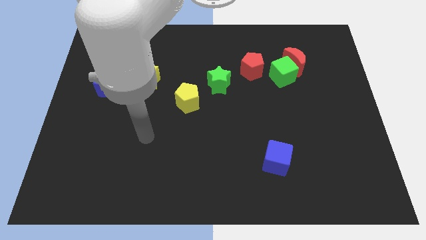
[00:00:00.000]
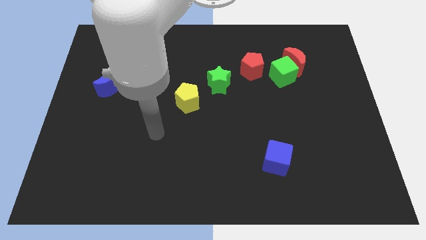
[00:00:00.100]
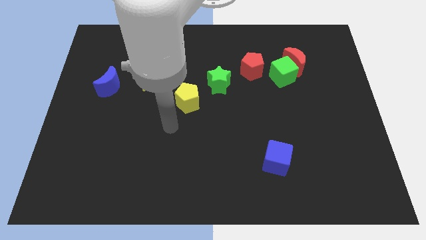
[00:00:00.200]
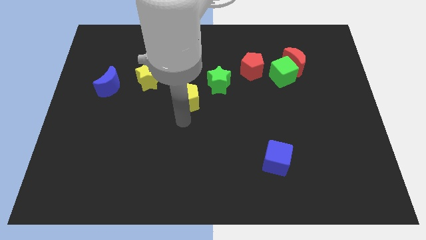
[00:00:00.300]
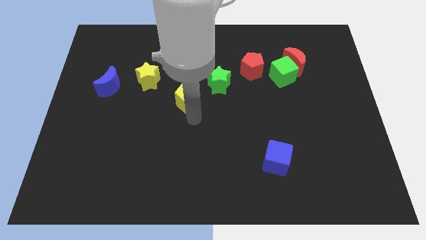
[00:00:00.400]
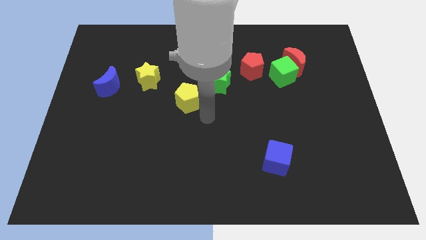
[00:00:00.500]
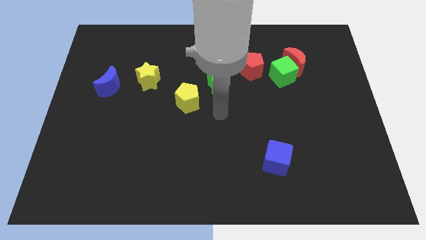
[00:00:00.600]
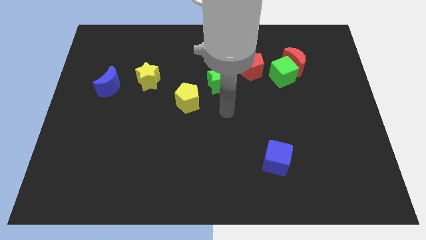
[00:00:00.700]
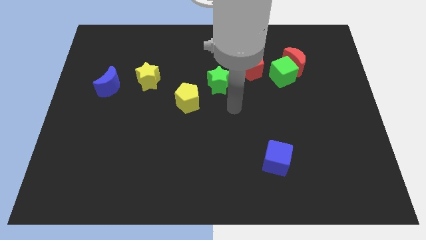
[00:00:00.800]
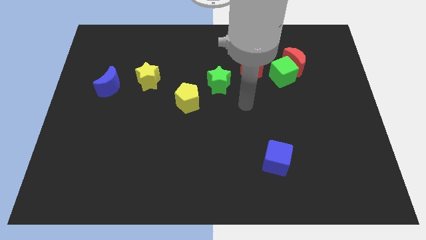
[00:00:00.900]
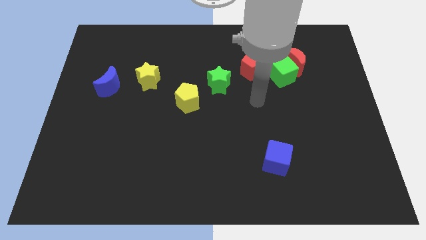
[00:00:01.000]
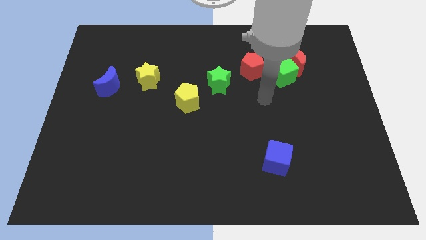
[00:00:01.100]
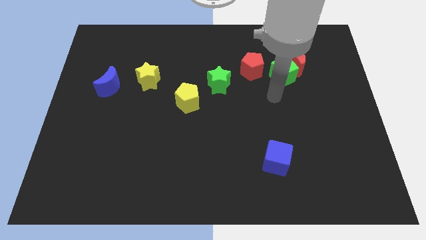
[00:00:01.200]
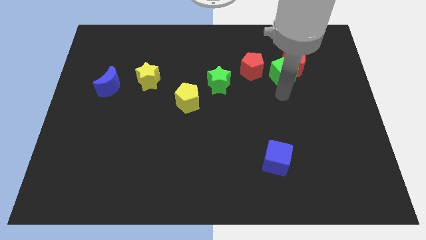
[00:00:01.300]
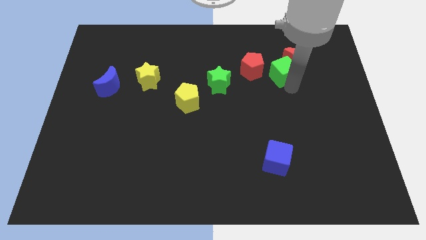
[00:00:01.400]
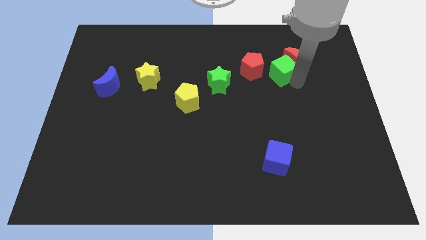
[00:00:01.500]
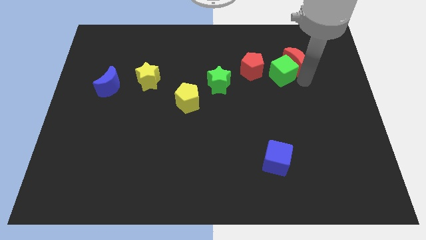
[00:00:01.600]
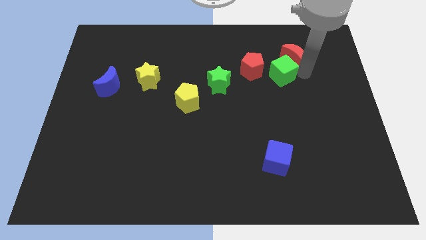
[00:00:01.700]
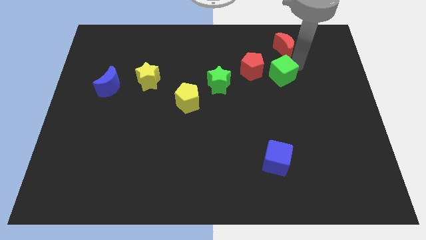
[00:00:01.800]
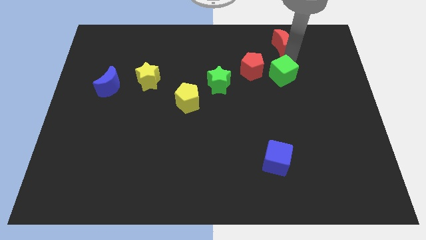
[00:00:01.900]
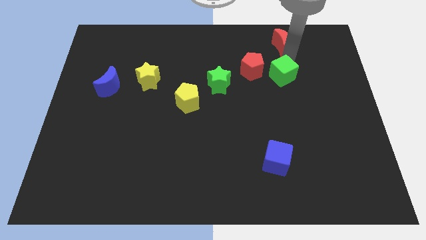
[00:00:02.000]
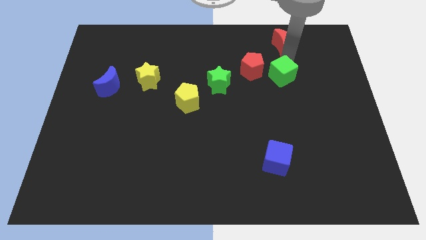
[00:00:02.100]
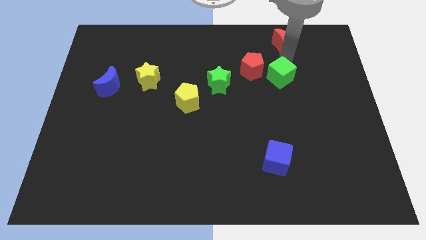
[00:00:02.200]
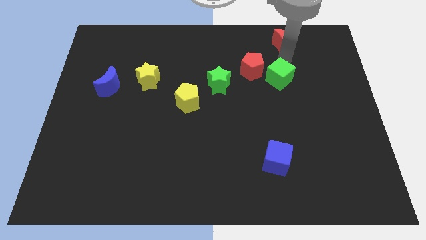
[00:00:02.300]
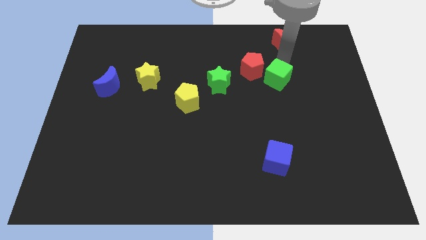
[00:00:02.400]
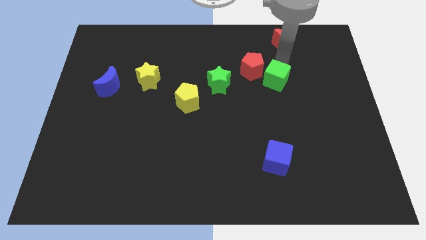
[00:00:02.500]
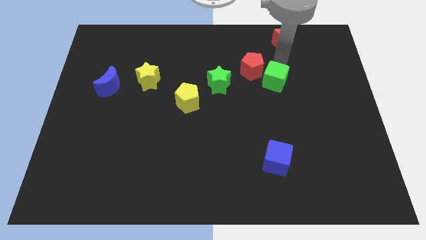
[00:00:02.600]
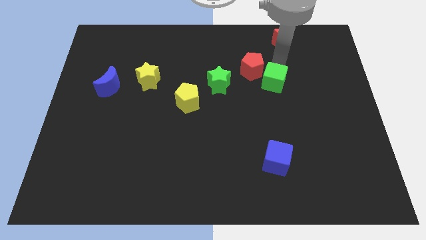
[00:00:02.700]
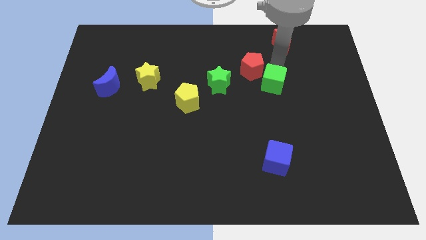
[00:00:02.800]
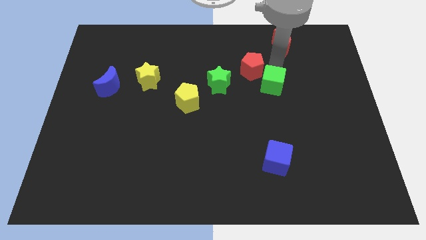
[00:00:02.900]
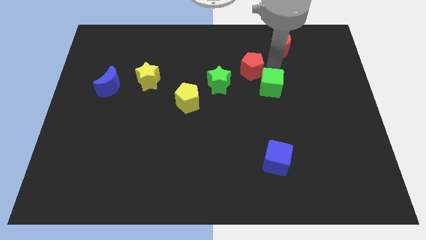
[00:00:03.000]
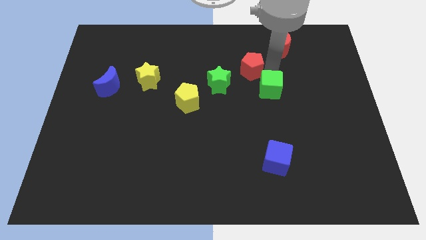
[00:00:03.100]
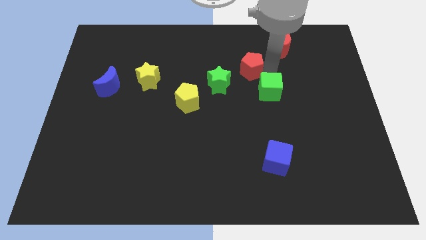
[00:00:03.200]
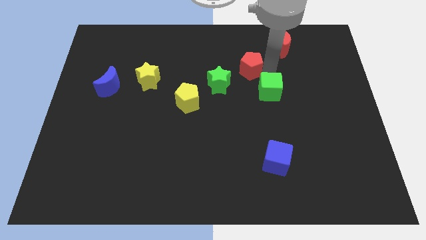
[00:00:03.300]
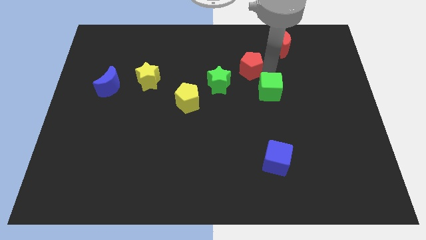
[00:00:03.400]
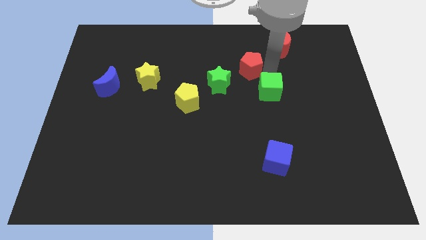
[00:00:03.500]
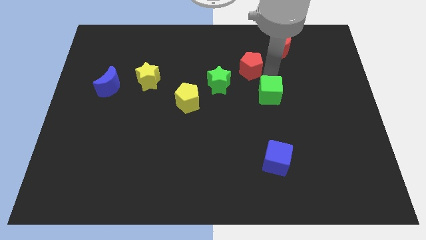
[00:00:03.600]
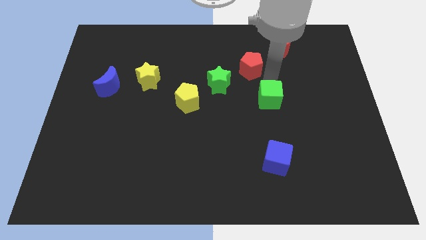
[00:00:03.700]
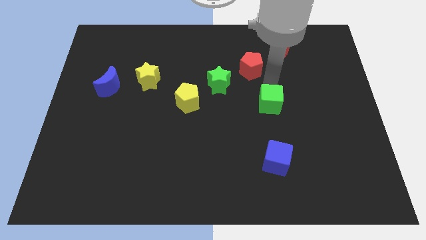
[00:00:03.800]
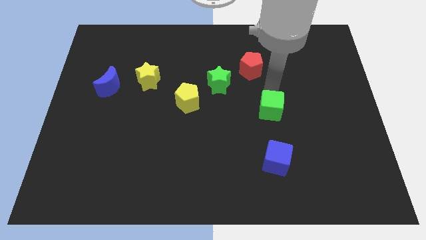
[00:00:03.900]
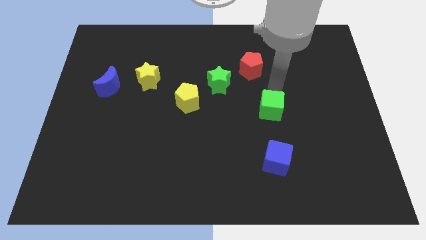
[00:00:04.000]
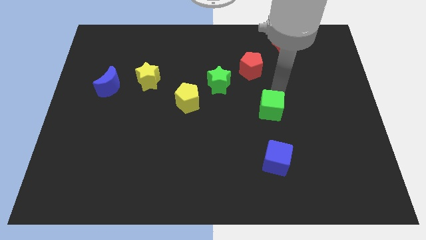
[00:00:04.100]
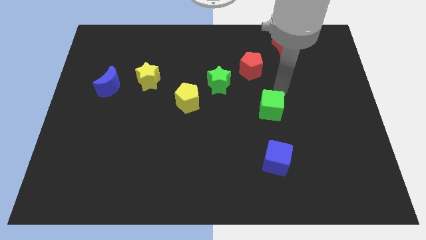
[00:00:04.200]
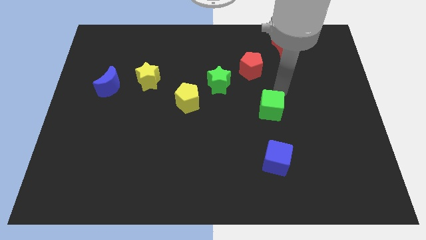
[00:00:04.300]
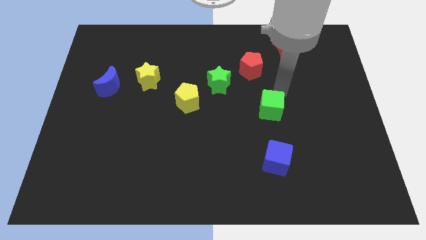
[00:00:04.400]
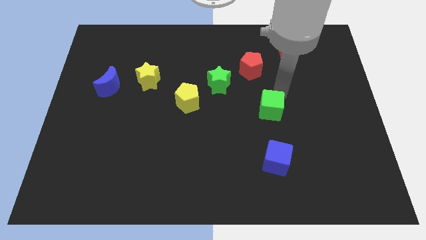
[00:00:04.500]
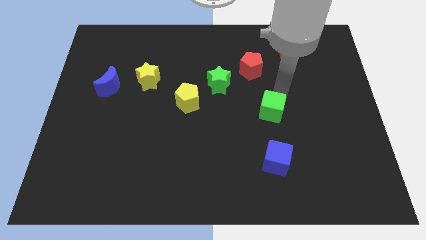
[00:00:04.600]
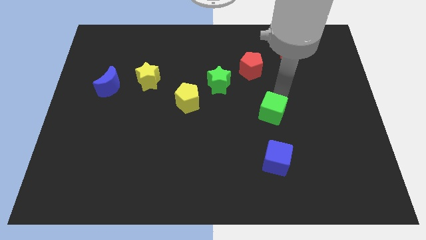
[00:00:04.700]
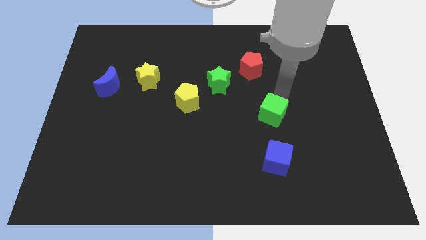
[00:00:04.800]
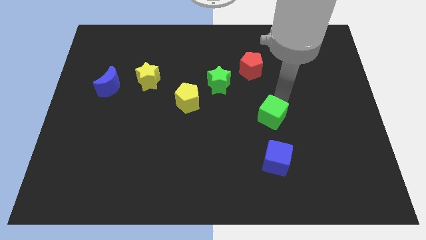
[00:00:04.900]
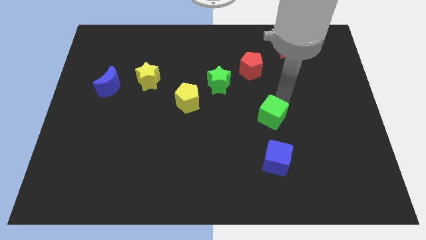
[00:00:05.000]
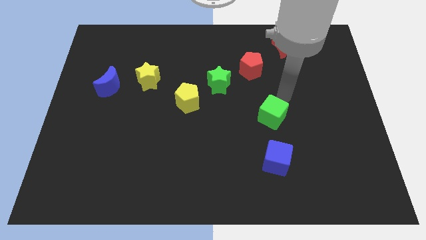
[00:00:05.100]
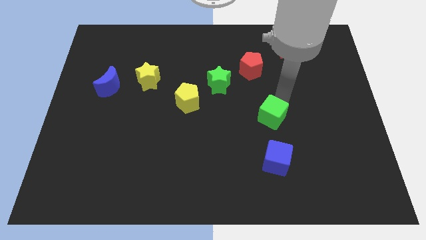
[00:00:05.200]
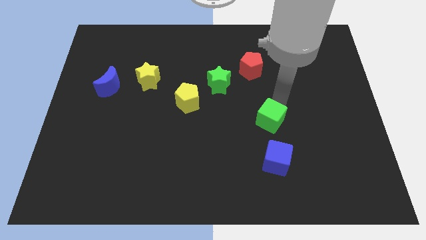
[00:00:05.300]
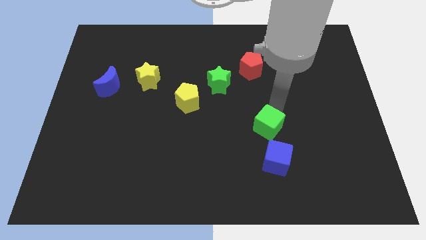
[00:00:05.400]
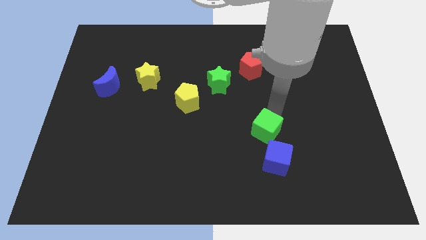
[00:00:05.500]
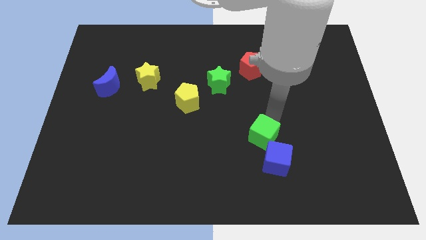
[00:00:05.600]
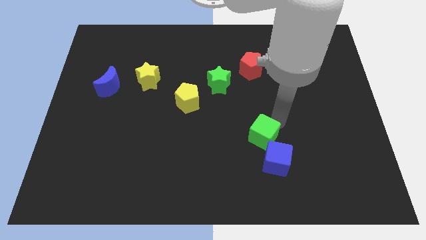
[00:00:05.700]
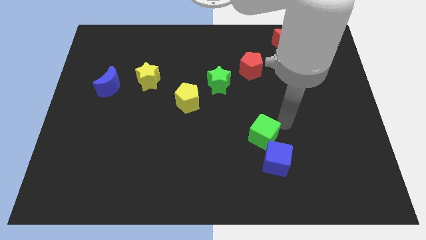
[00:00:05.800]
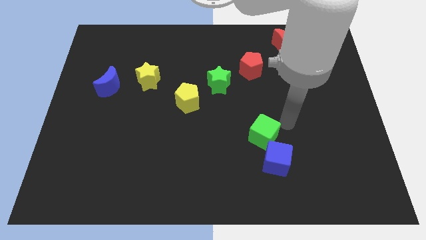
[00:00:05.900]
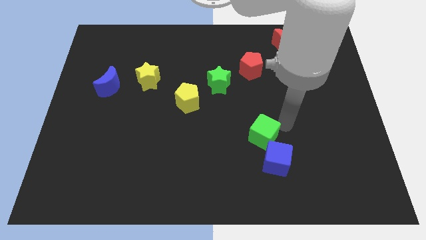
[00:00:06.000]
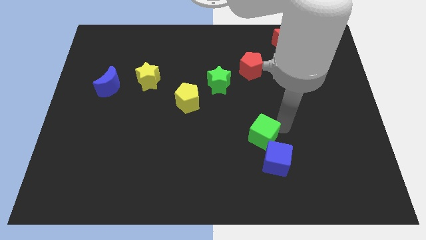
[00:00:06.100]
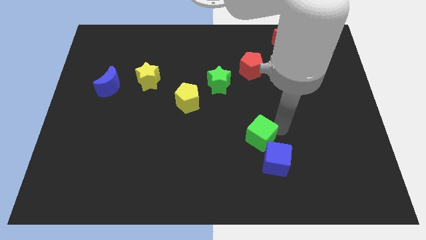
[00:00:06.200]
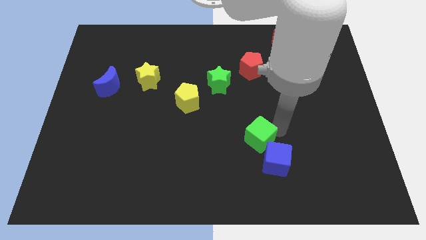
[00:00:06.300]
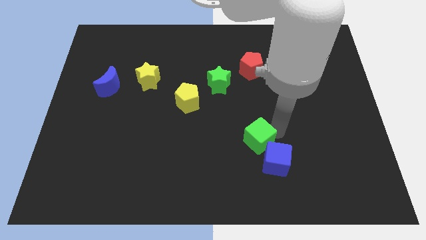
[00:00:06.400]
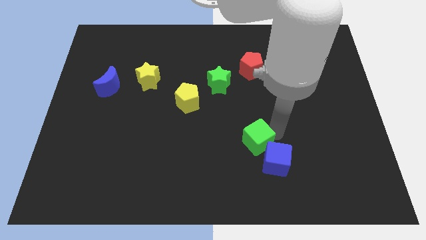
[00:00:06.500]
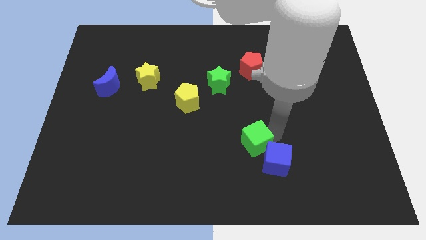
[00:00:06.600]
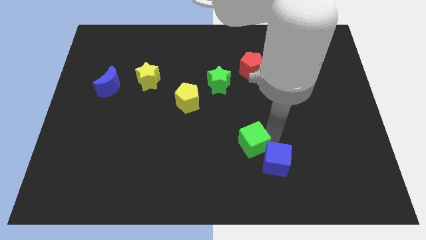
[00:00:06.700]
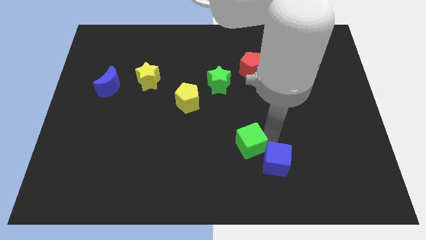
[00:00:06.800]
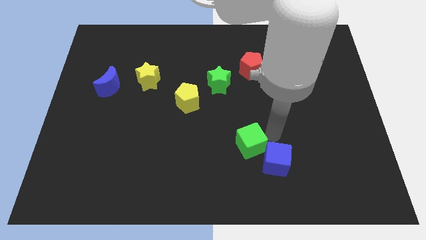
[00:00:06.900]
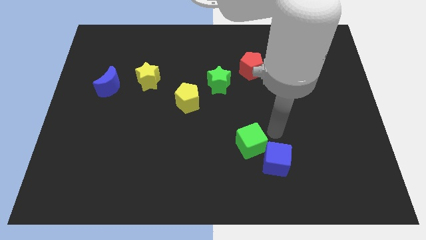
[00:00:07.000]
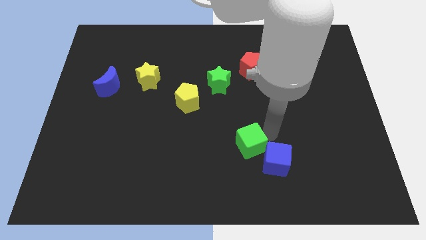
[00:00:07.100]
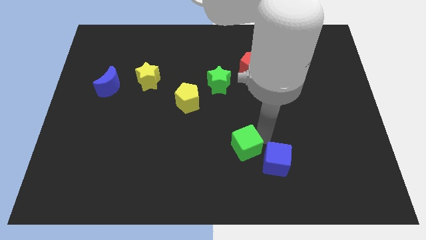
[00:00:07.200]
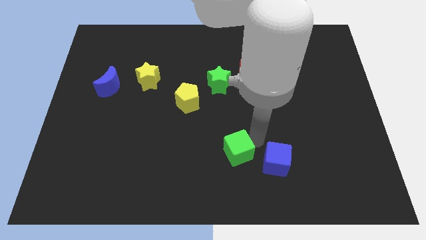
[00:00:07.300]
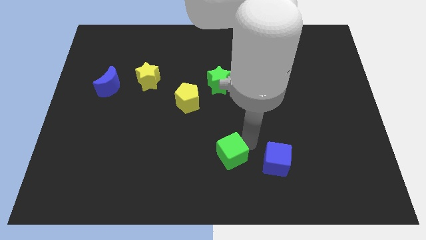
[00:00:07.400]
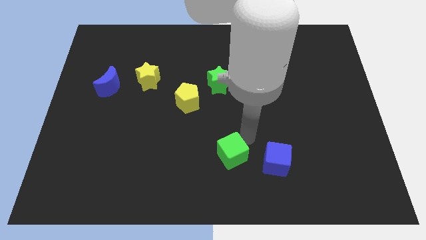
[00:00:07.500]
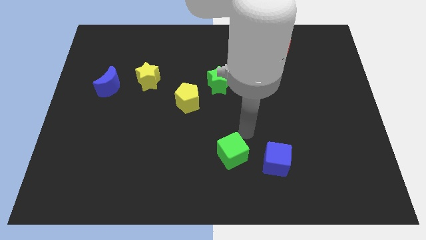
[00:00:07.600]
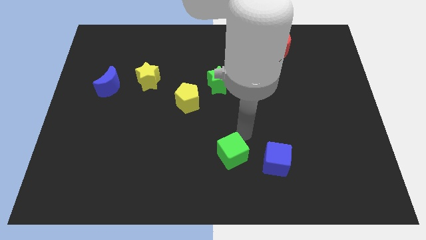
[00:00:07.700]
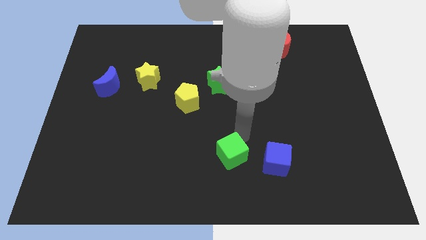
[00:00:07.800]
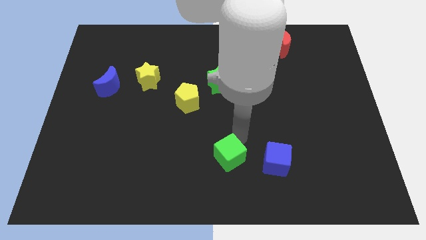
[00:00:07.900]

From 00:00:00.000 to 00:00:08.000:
put the green cube to the bottom side
